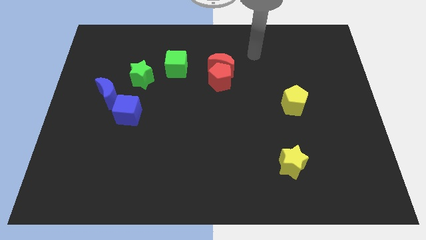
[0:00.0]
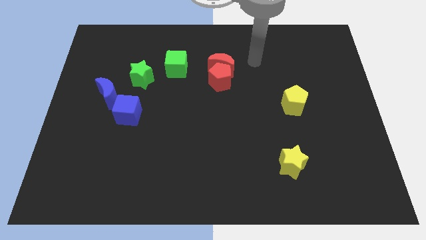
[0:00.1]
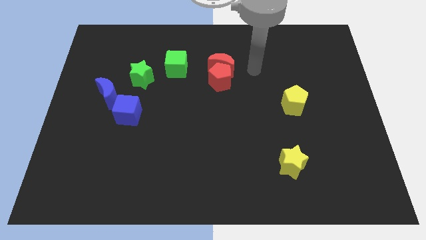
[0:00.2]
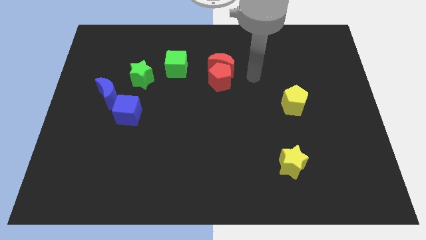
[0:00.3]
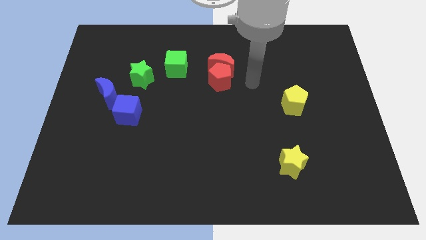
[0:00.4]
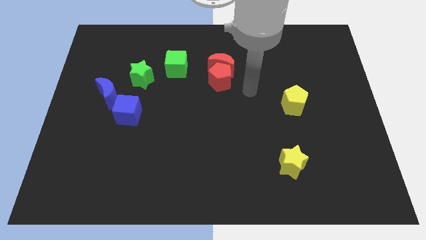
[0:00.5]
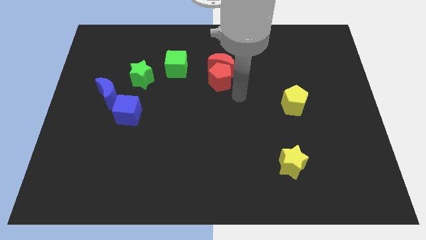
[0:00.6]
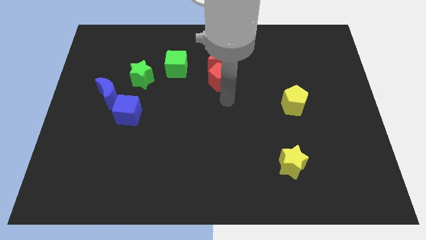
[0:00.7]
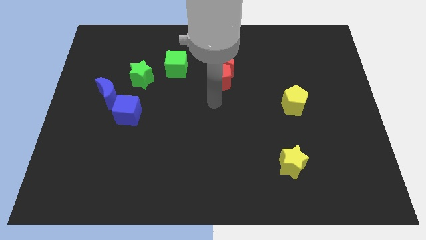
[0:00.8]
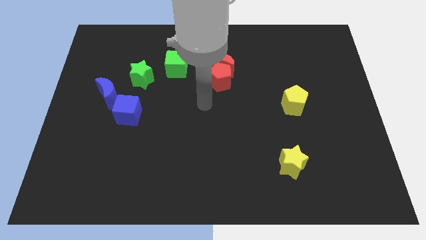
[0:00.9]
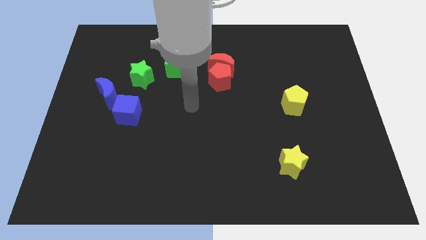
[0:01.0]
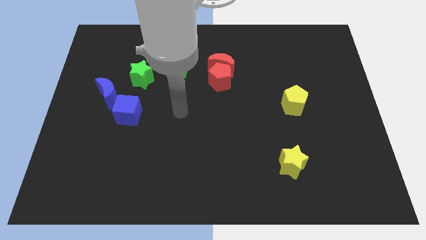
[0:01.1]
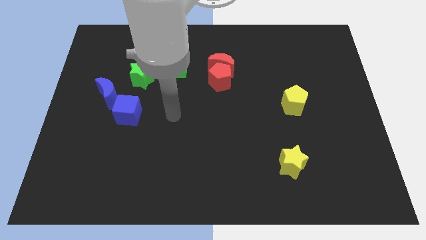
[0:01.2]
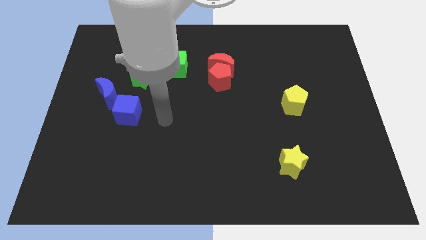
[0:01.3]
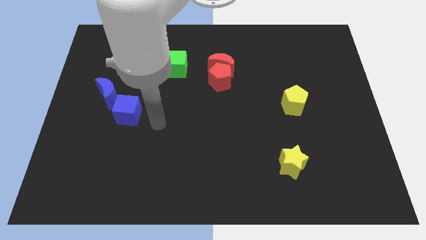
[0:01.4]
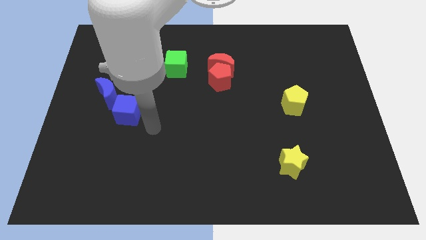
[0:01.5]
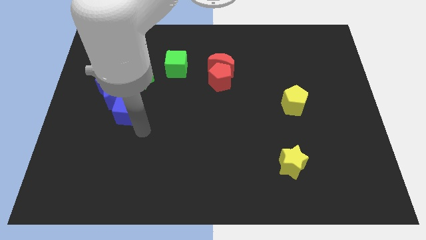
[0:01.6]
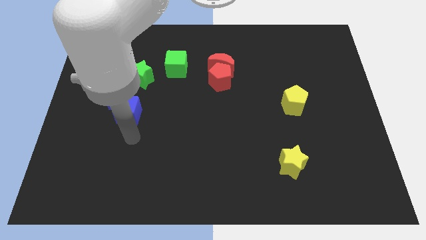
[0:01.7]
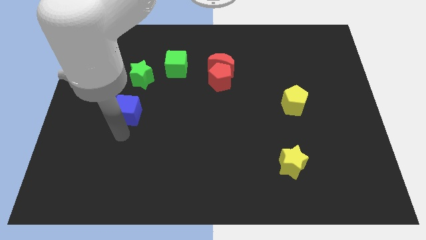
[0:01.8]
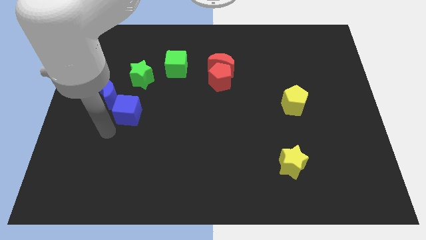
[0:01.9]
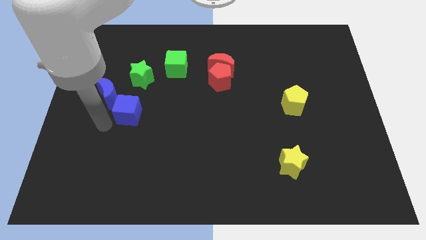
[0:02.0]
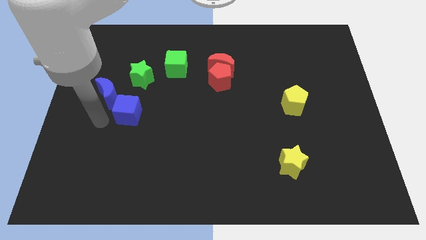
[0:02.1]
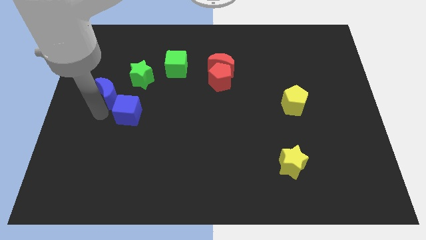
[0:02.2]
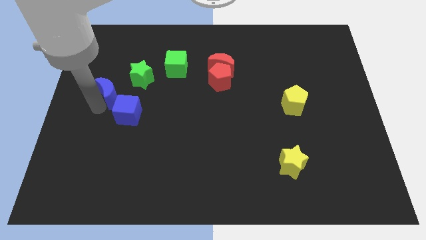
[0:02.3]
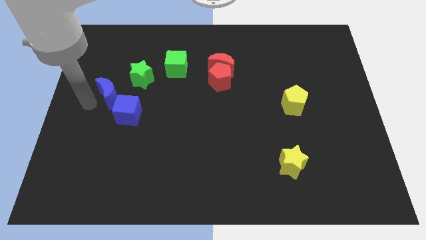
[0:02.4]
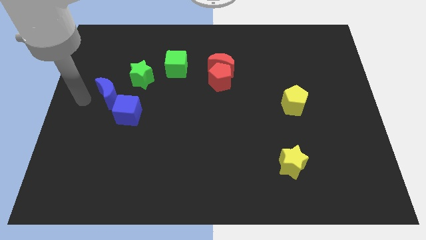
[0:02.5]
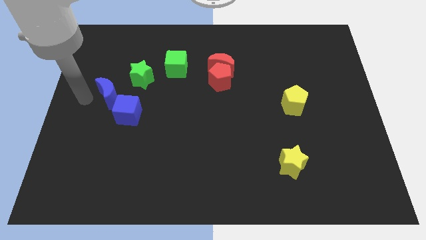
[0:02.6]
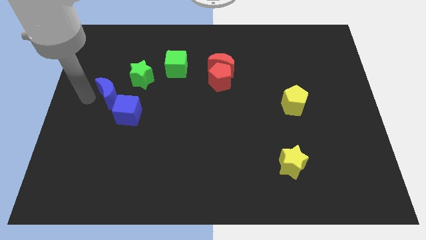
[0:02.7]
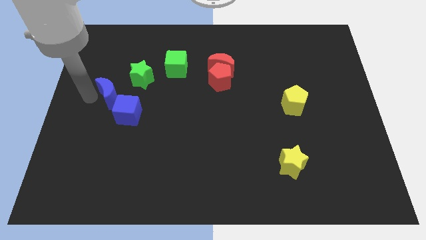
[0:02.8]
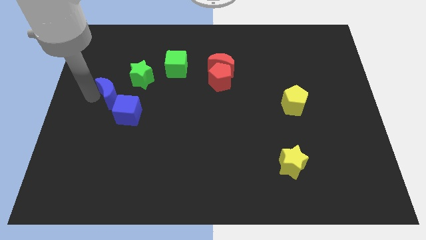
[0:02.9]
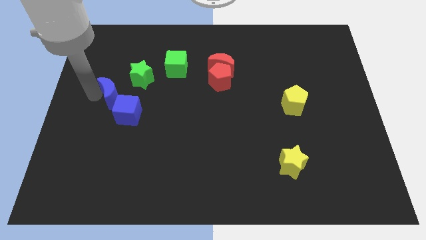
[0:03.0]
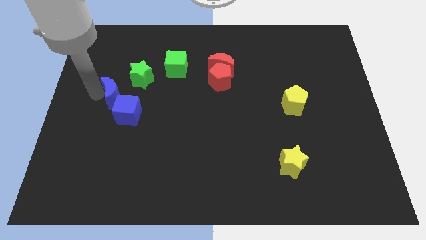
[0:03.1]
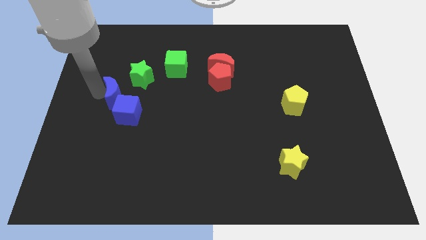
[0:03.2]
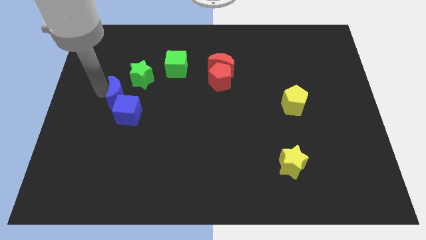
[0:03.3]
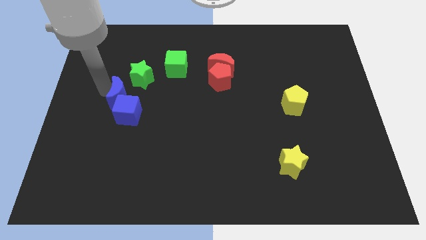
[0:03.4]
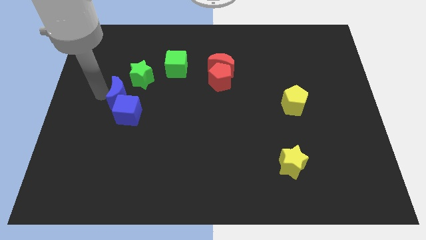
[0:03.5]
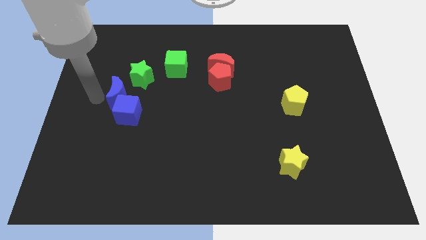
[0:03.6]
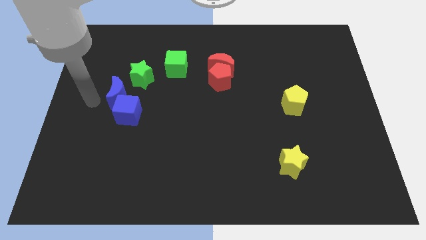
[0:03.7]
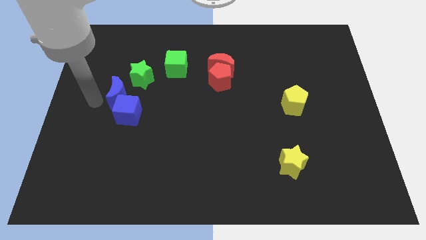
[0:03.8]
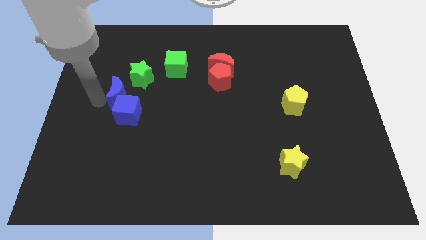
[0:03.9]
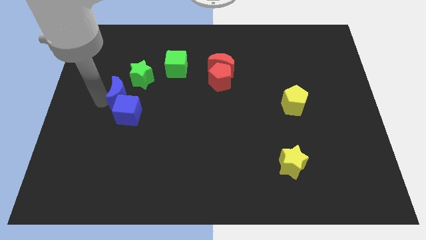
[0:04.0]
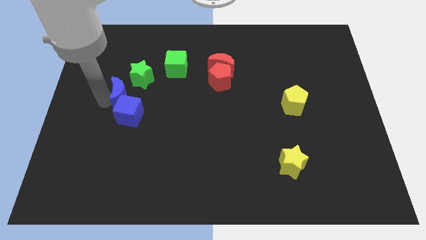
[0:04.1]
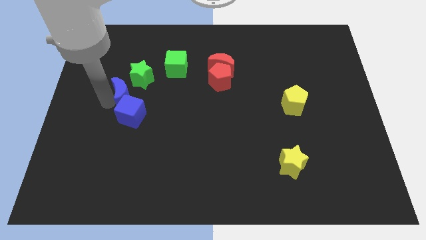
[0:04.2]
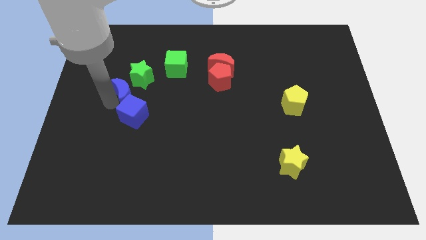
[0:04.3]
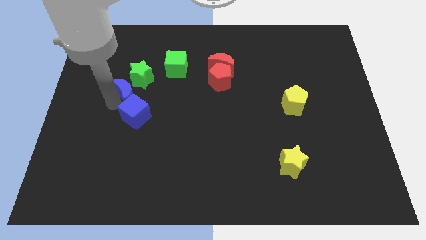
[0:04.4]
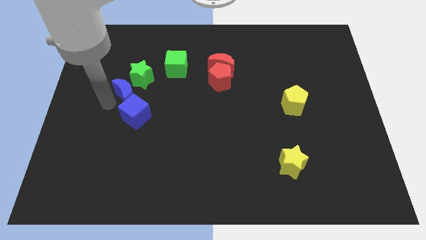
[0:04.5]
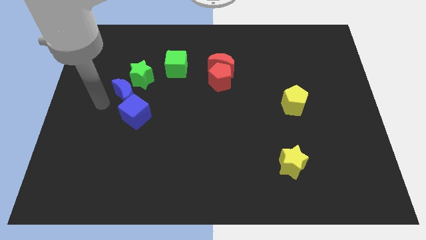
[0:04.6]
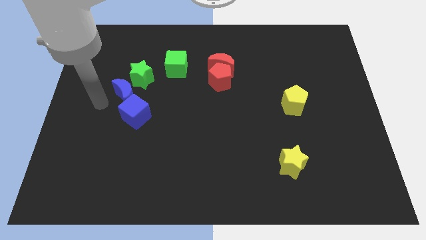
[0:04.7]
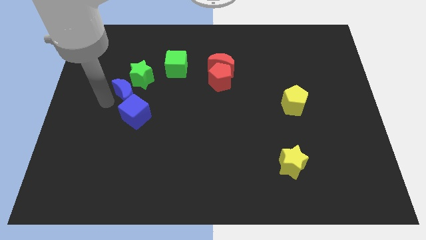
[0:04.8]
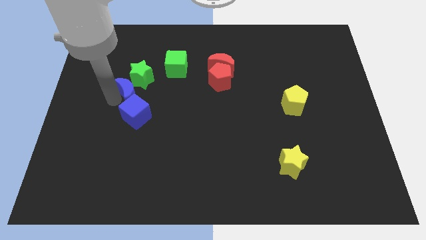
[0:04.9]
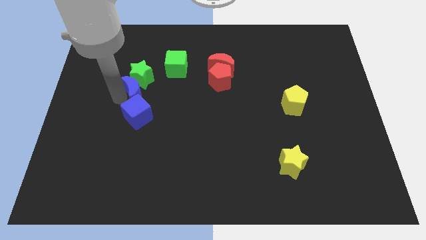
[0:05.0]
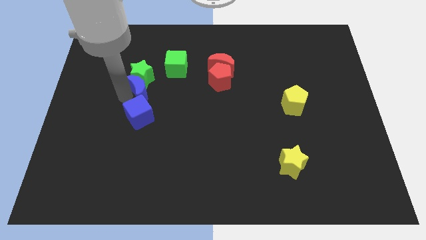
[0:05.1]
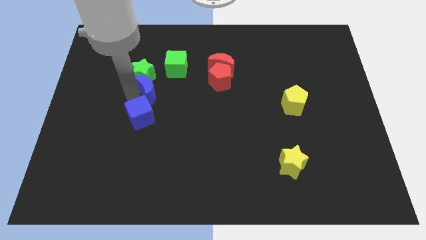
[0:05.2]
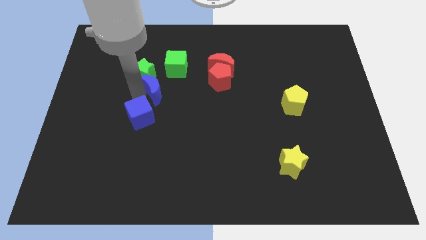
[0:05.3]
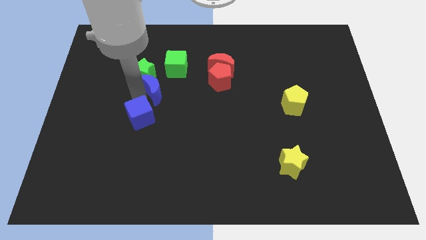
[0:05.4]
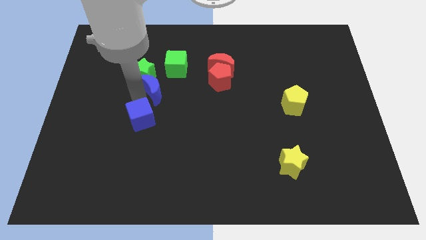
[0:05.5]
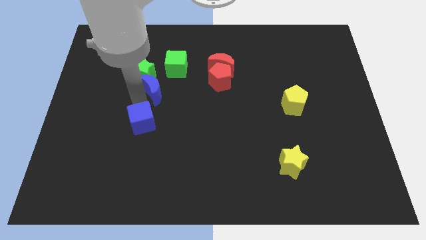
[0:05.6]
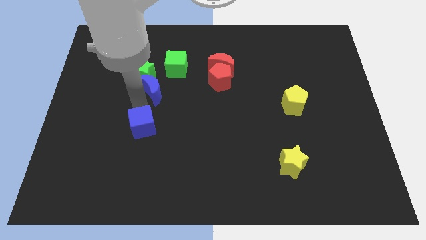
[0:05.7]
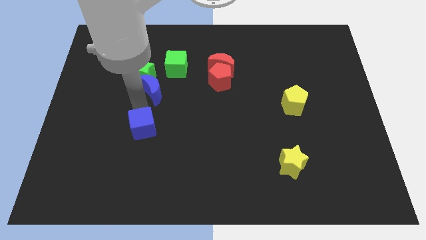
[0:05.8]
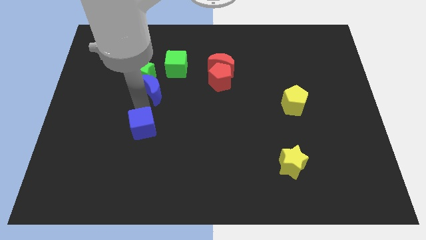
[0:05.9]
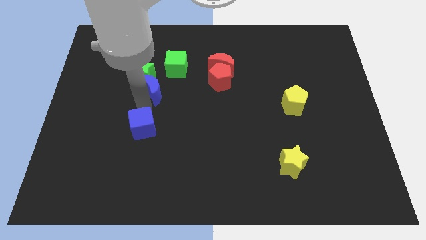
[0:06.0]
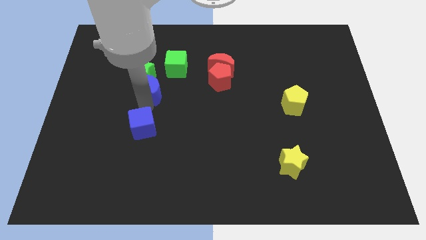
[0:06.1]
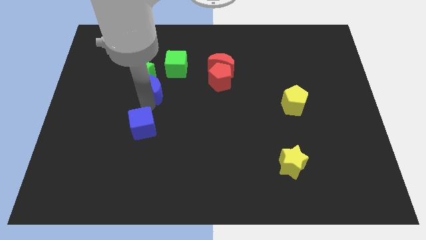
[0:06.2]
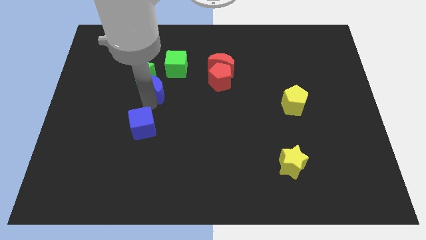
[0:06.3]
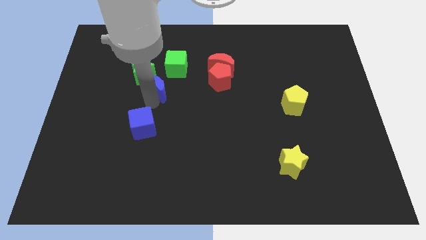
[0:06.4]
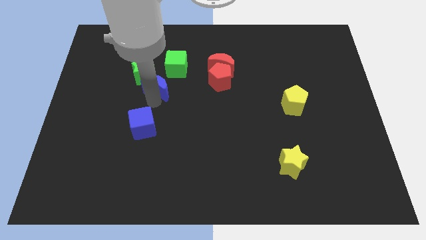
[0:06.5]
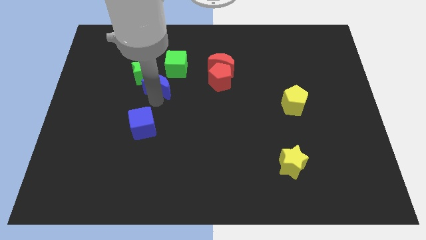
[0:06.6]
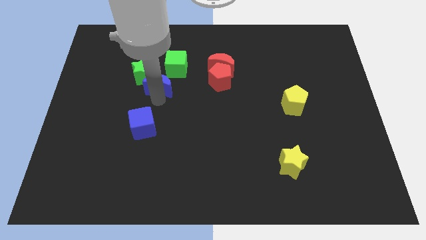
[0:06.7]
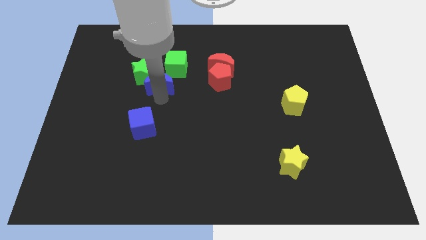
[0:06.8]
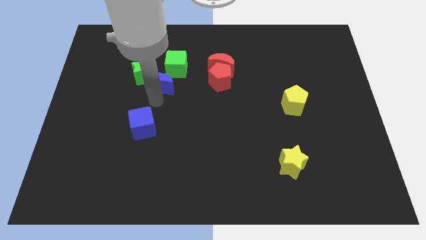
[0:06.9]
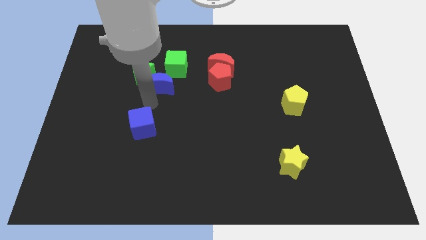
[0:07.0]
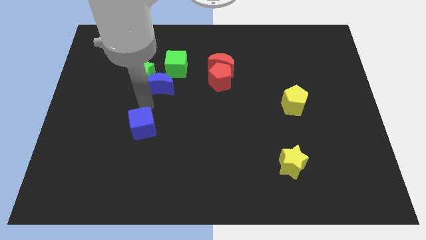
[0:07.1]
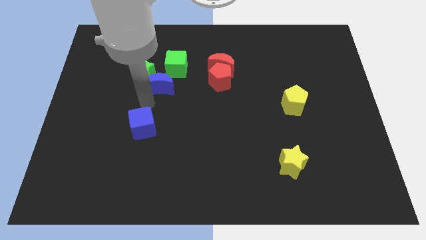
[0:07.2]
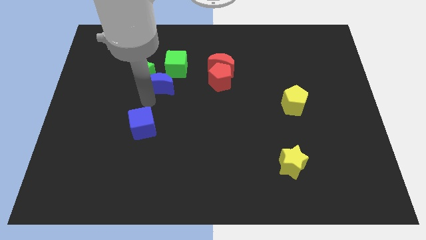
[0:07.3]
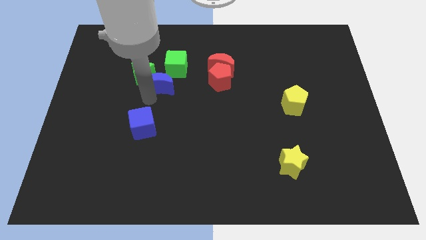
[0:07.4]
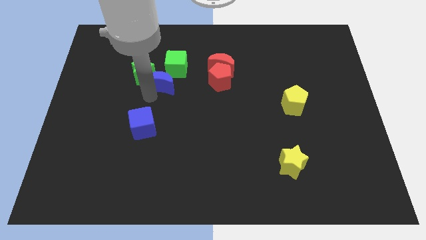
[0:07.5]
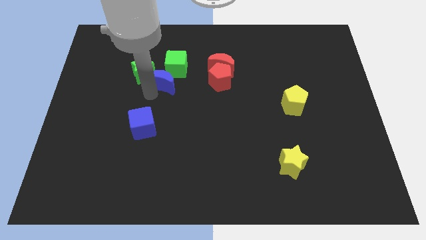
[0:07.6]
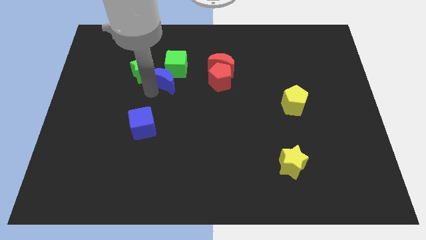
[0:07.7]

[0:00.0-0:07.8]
push the blue moon towards the green cube
